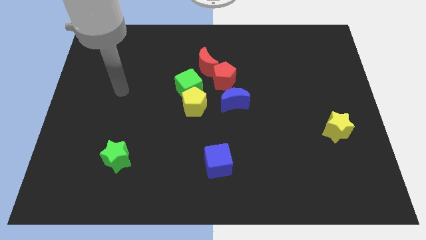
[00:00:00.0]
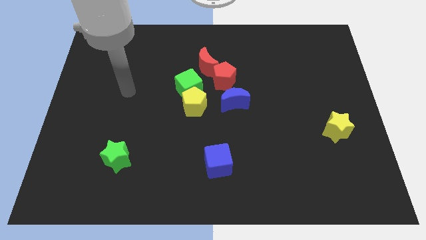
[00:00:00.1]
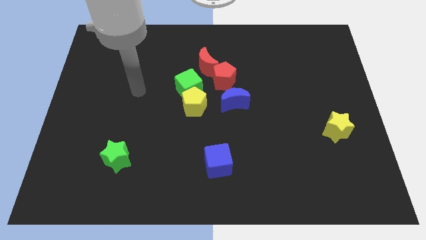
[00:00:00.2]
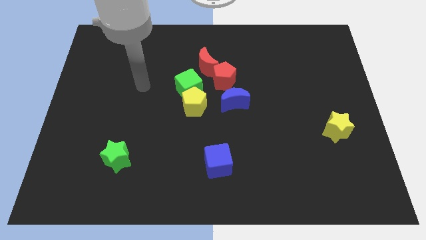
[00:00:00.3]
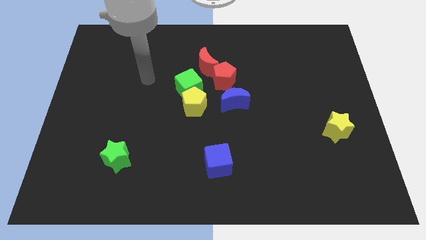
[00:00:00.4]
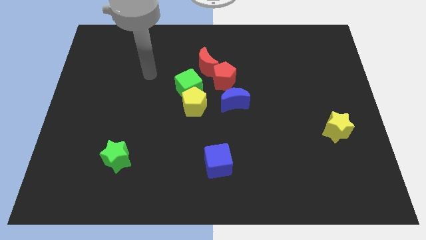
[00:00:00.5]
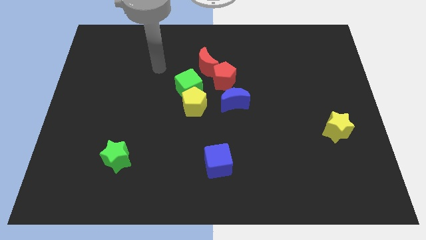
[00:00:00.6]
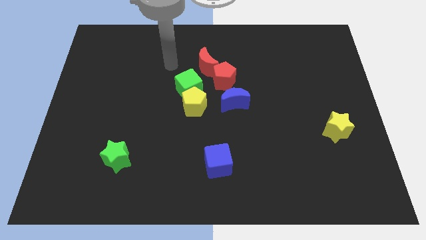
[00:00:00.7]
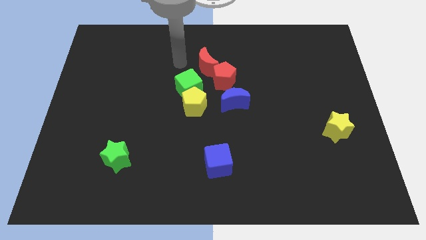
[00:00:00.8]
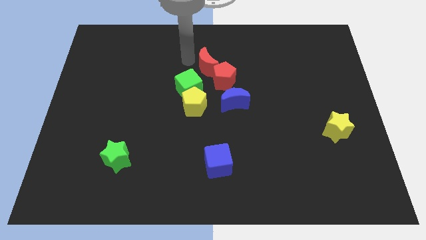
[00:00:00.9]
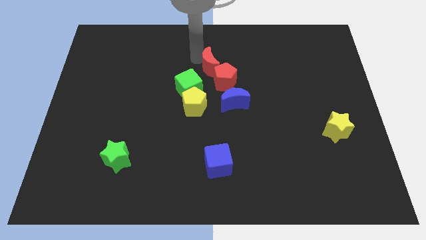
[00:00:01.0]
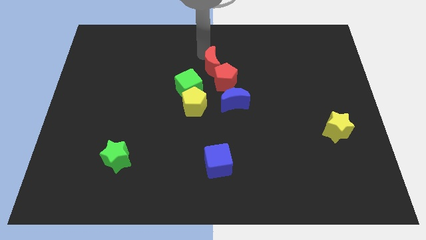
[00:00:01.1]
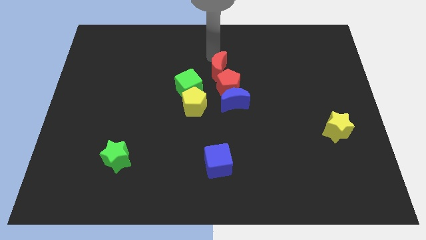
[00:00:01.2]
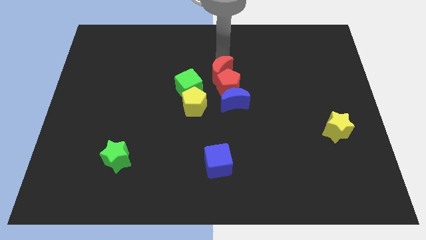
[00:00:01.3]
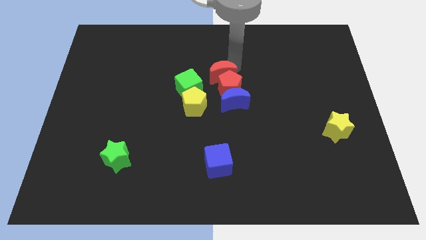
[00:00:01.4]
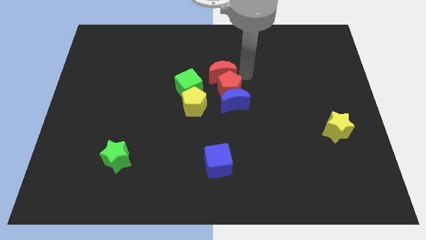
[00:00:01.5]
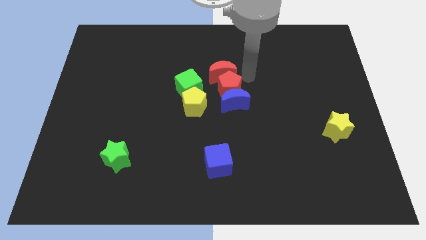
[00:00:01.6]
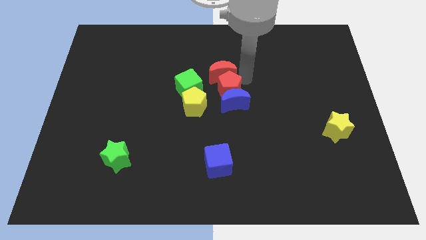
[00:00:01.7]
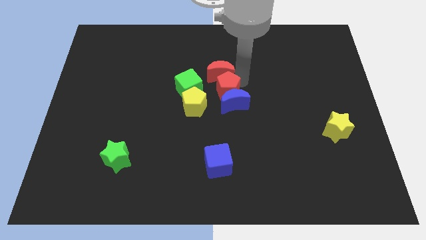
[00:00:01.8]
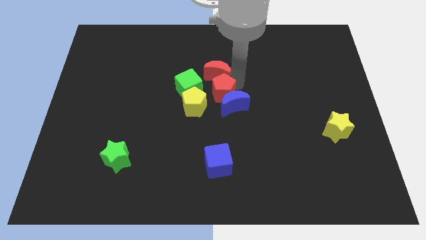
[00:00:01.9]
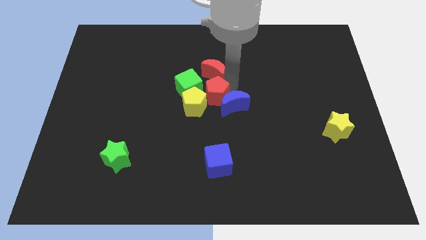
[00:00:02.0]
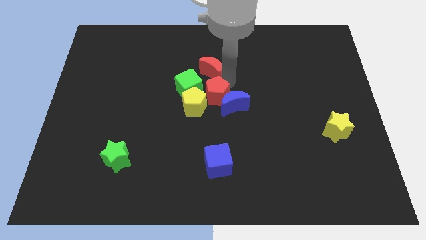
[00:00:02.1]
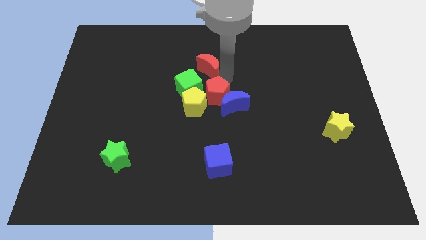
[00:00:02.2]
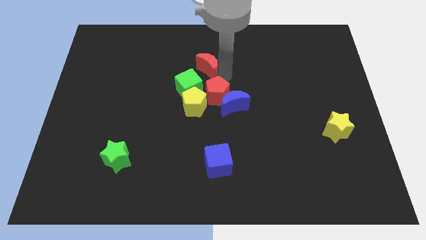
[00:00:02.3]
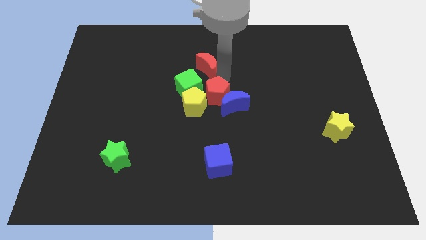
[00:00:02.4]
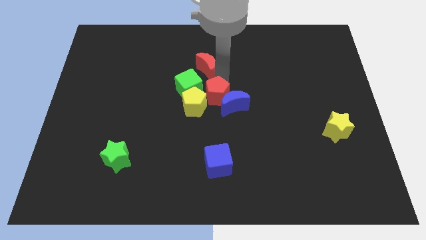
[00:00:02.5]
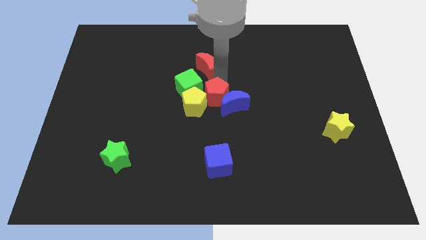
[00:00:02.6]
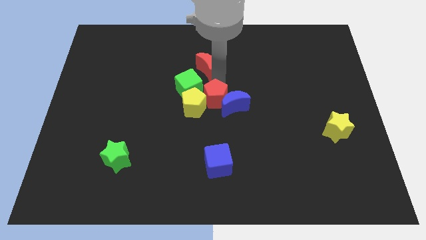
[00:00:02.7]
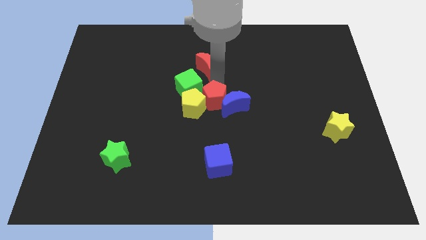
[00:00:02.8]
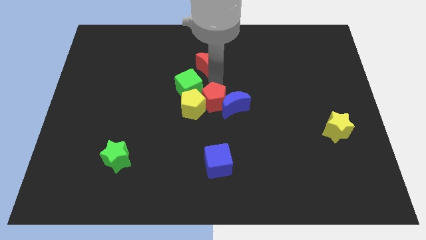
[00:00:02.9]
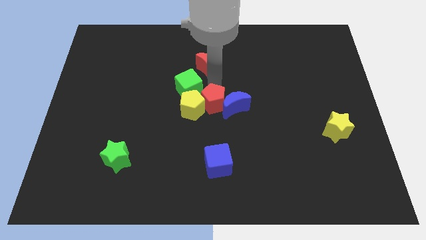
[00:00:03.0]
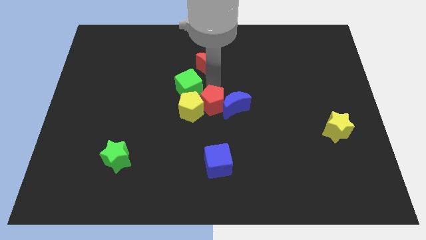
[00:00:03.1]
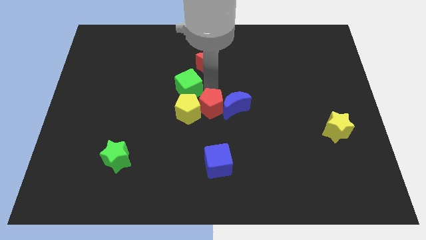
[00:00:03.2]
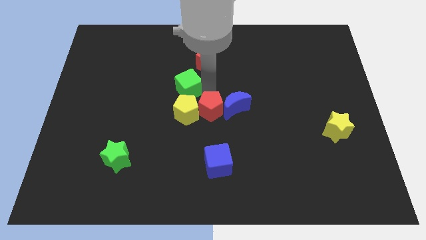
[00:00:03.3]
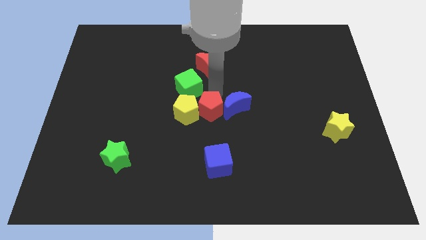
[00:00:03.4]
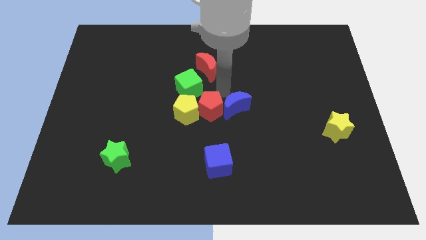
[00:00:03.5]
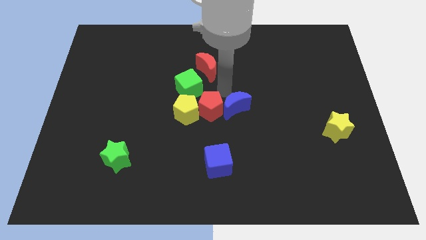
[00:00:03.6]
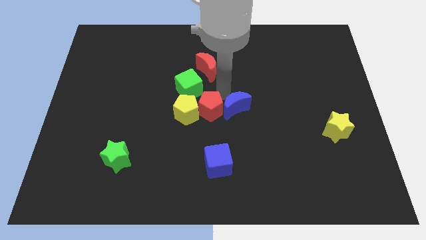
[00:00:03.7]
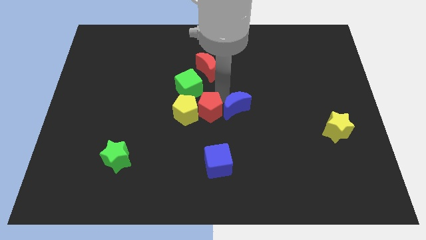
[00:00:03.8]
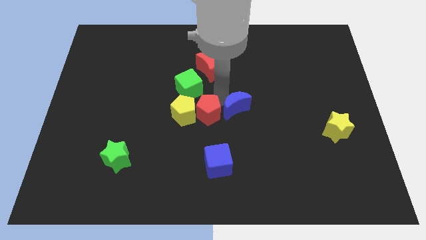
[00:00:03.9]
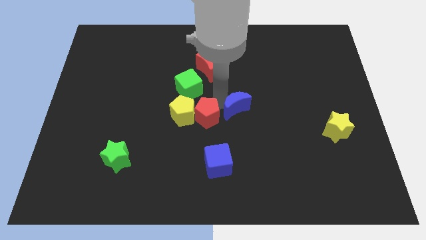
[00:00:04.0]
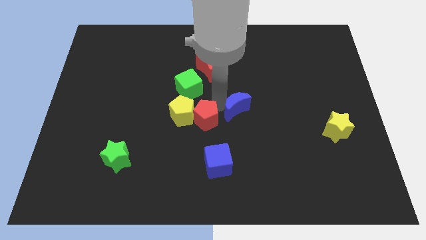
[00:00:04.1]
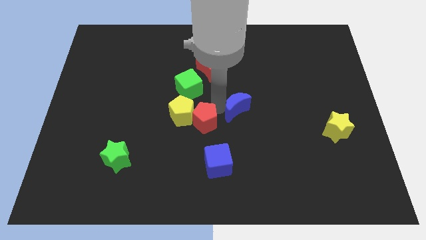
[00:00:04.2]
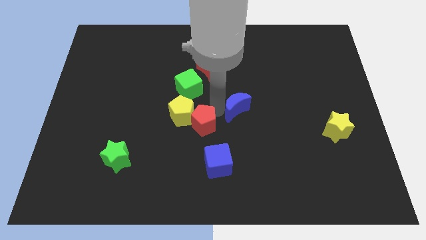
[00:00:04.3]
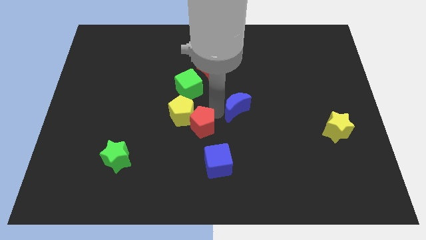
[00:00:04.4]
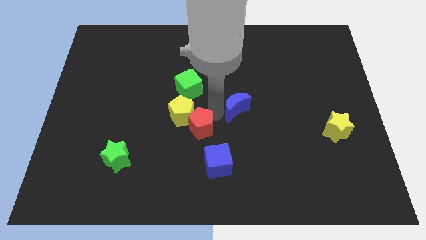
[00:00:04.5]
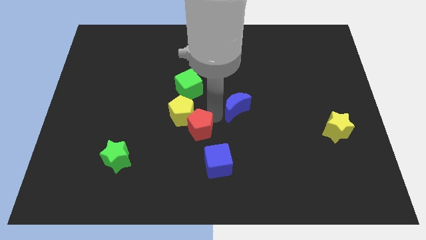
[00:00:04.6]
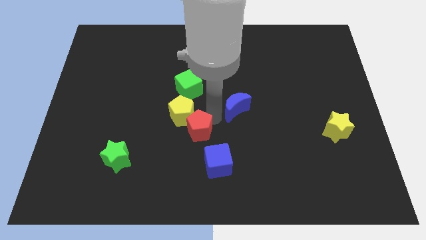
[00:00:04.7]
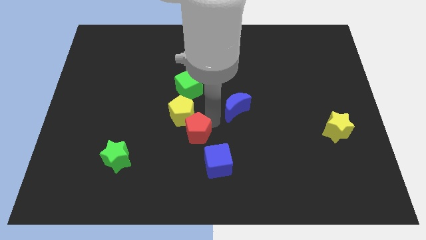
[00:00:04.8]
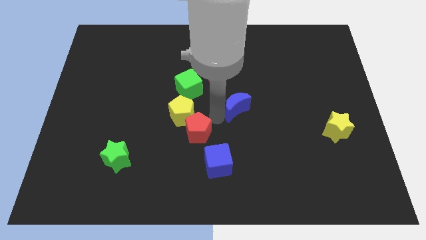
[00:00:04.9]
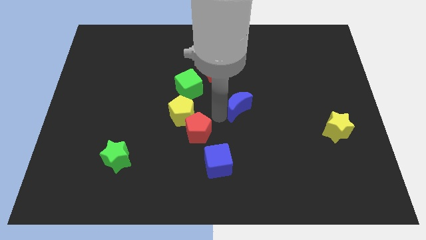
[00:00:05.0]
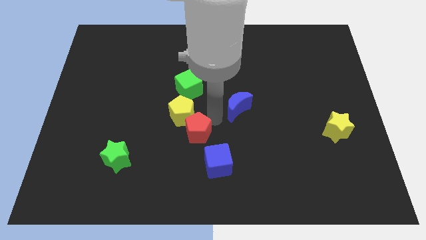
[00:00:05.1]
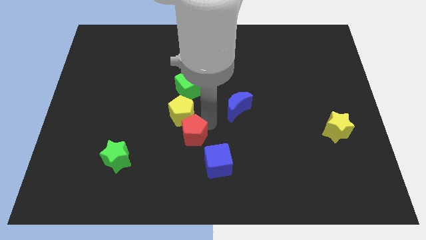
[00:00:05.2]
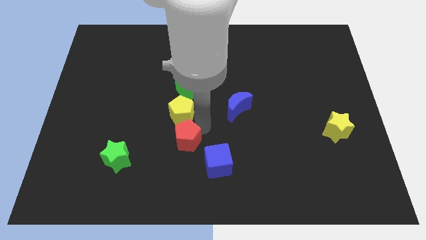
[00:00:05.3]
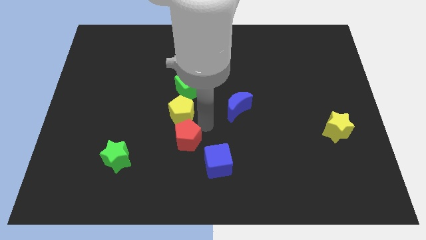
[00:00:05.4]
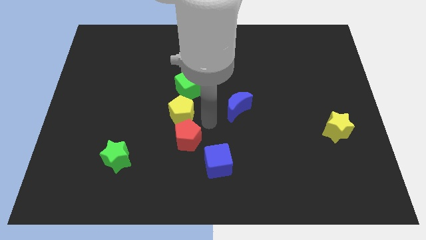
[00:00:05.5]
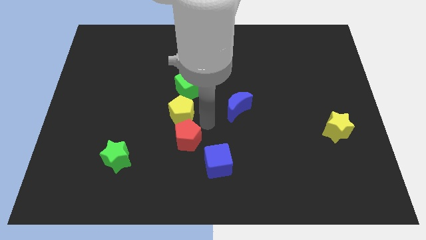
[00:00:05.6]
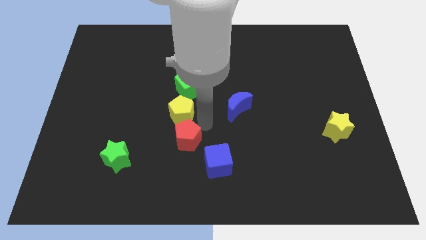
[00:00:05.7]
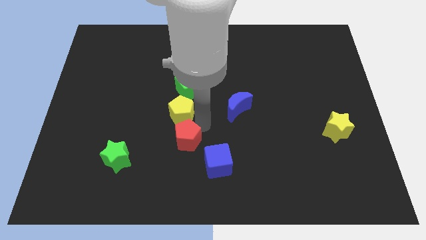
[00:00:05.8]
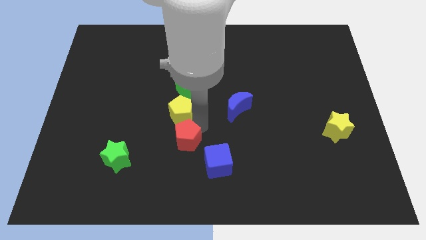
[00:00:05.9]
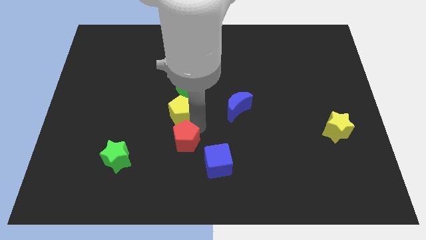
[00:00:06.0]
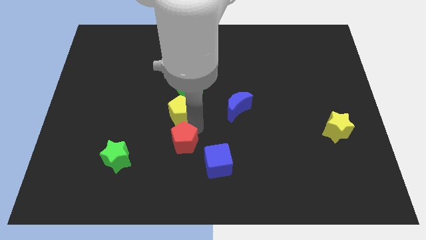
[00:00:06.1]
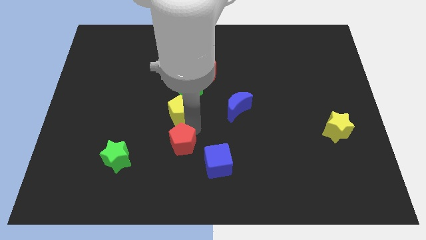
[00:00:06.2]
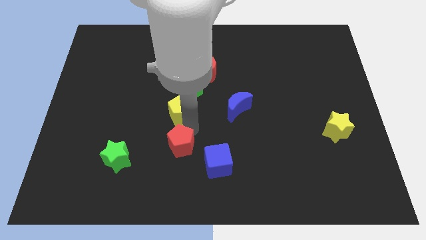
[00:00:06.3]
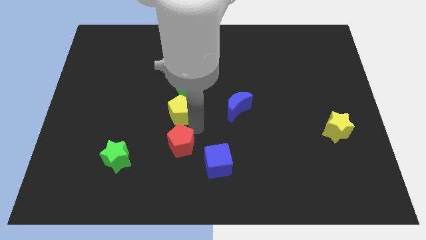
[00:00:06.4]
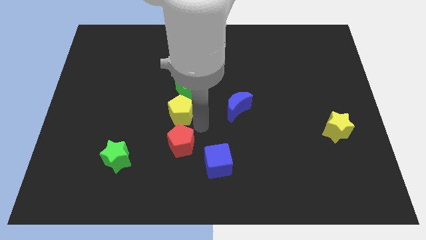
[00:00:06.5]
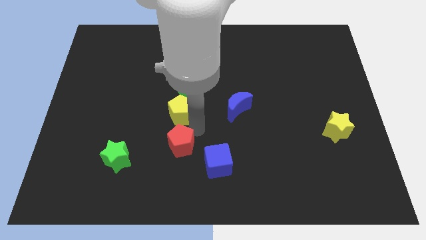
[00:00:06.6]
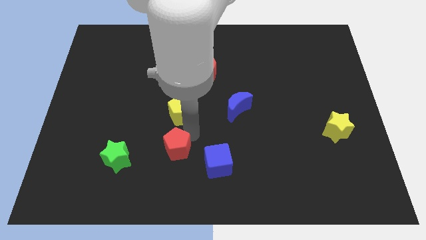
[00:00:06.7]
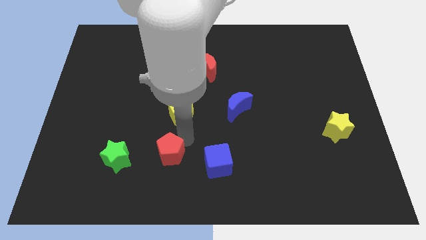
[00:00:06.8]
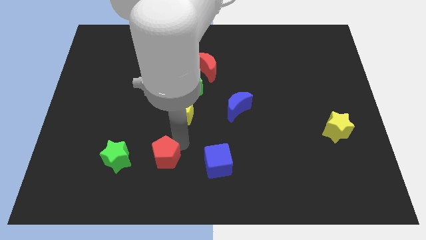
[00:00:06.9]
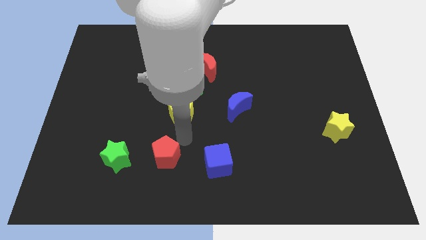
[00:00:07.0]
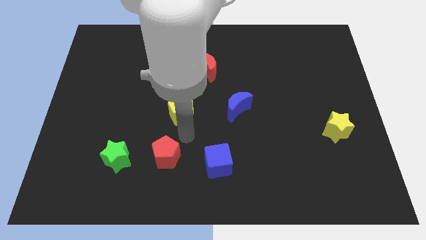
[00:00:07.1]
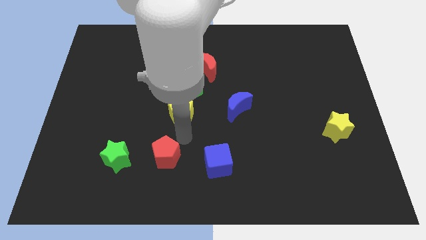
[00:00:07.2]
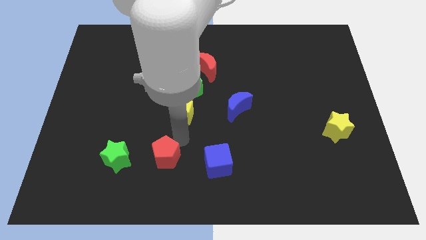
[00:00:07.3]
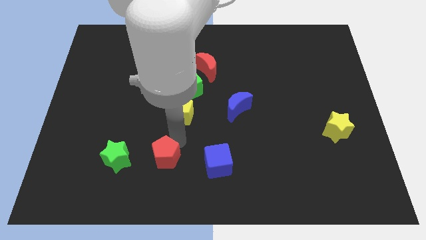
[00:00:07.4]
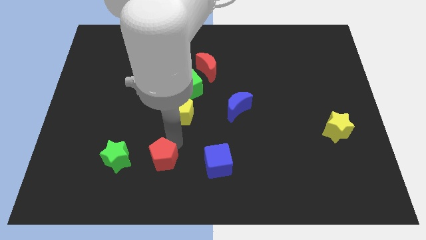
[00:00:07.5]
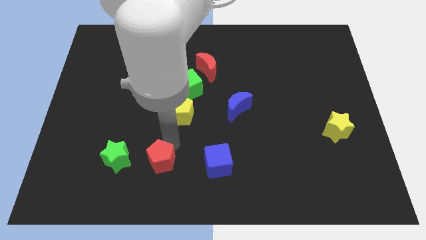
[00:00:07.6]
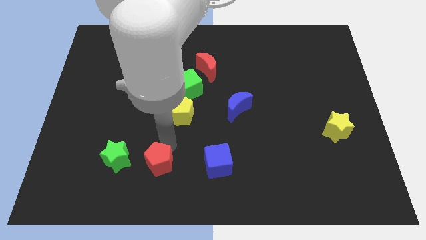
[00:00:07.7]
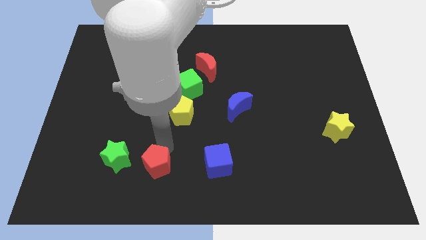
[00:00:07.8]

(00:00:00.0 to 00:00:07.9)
move the red pentagon to the bottom right side of the green star
